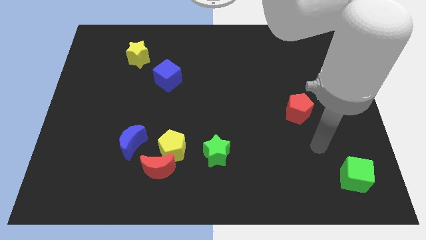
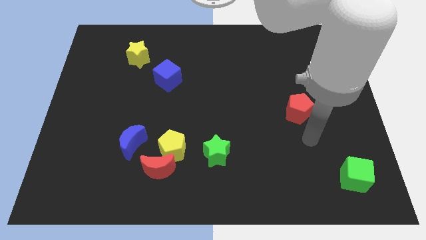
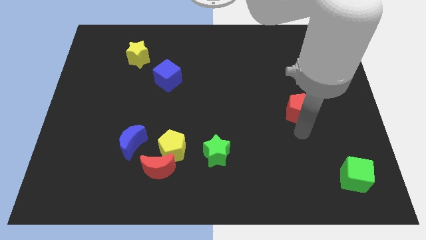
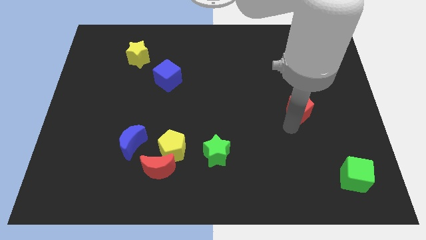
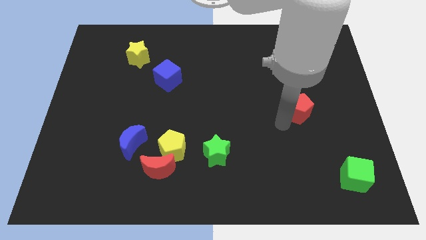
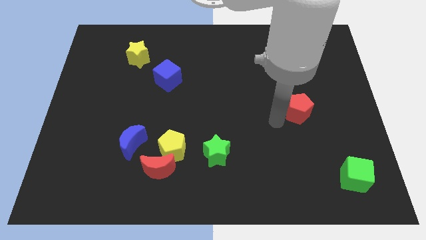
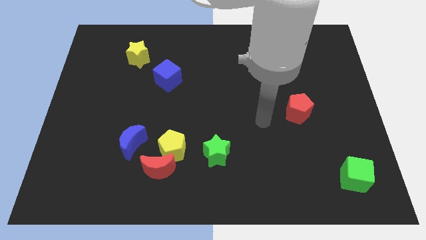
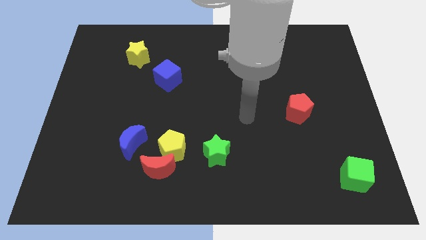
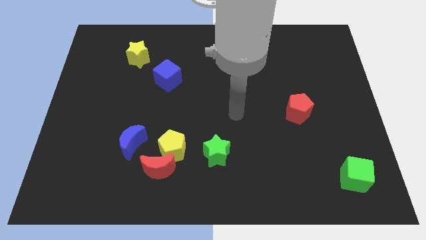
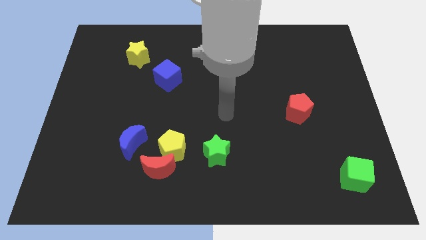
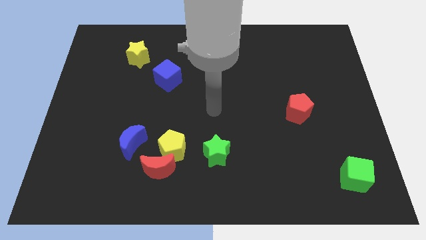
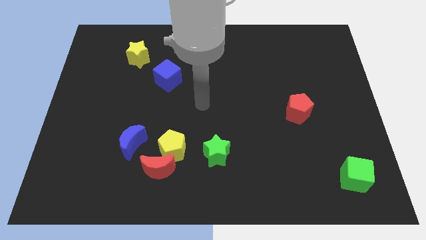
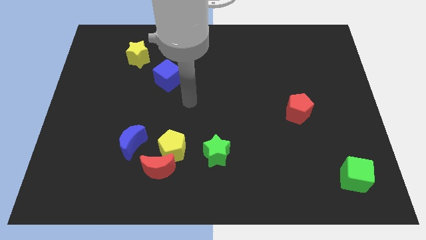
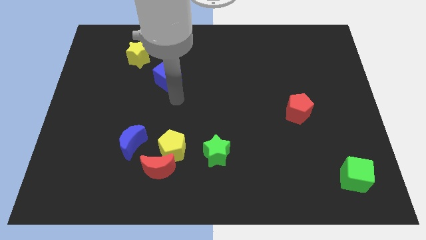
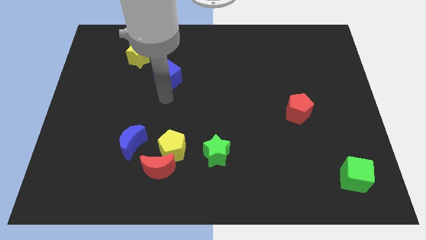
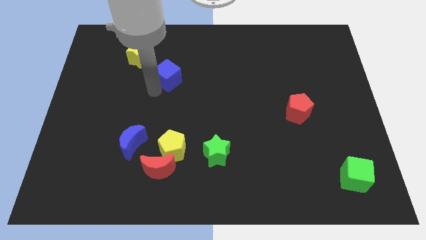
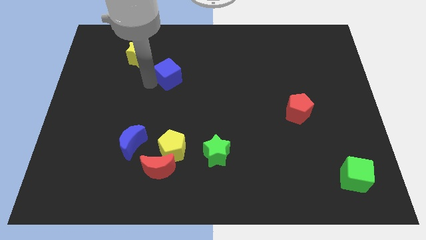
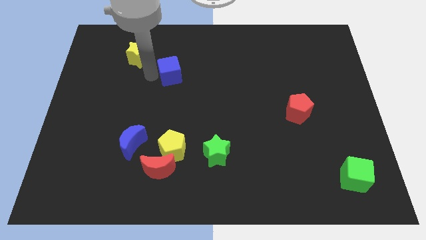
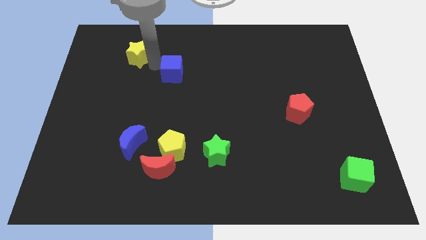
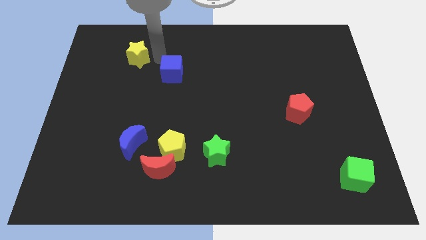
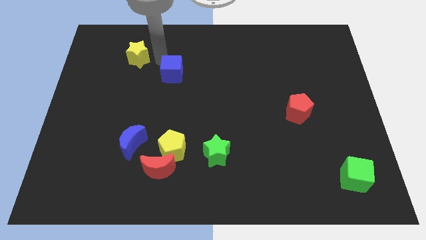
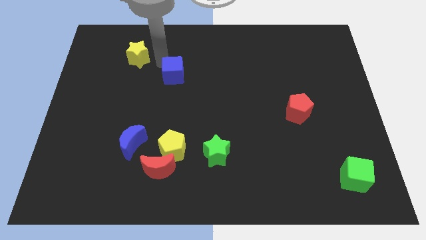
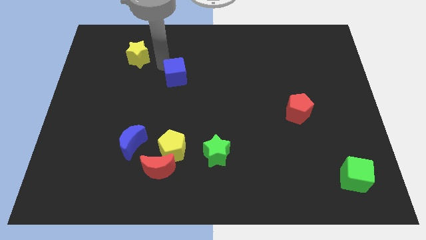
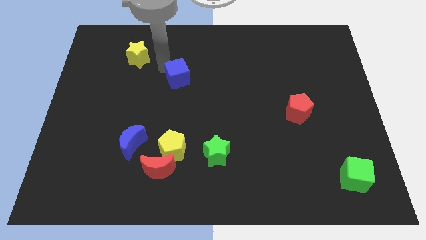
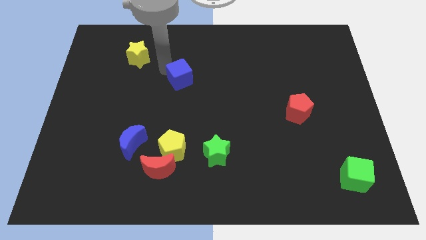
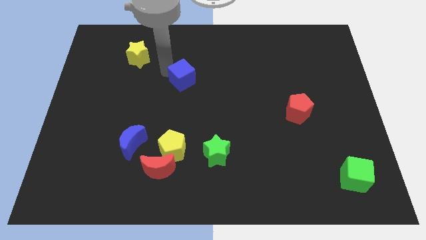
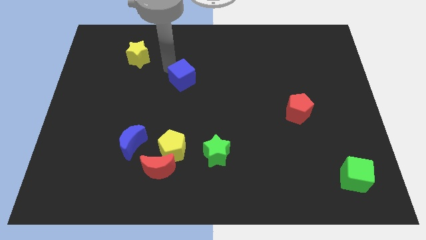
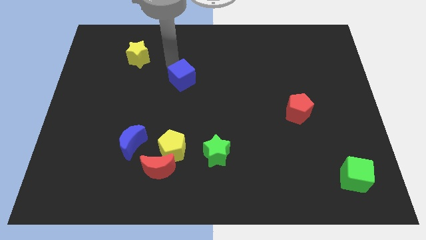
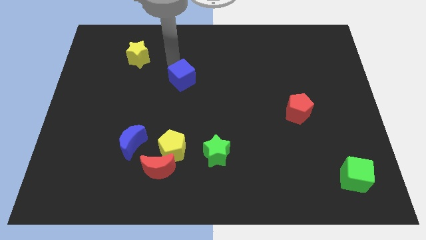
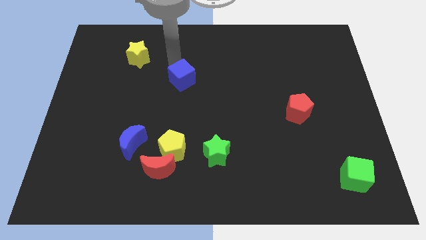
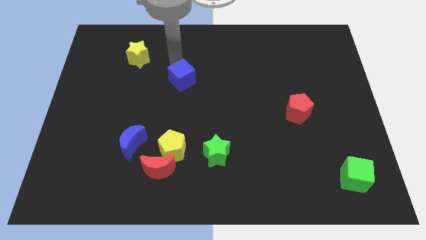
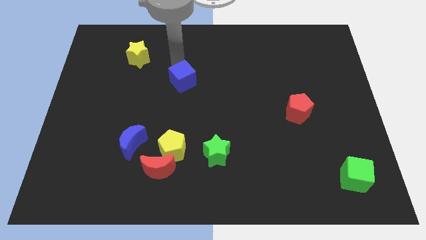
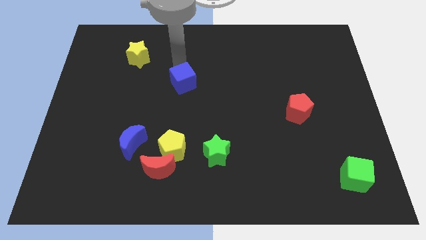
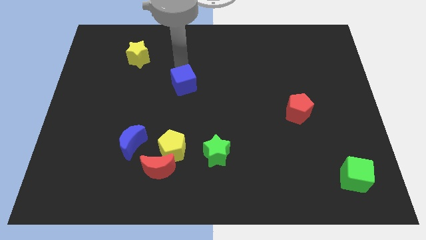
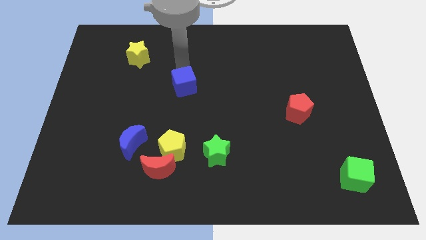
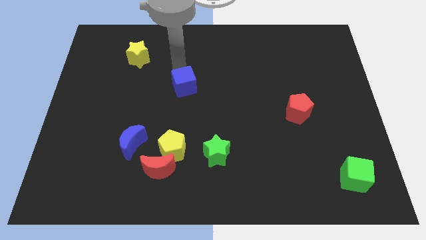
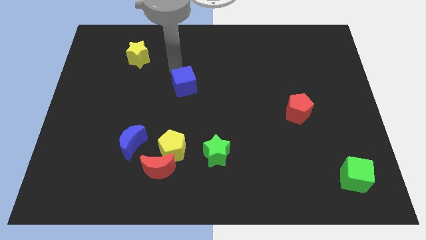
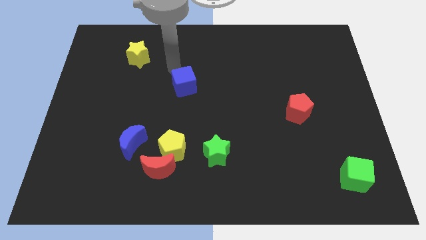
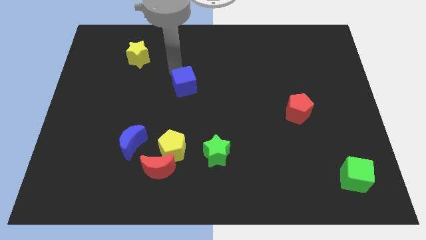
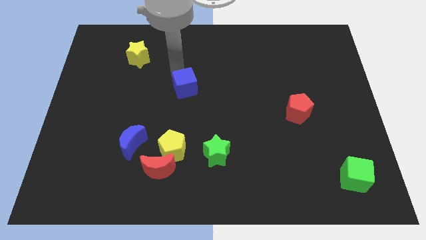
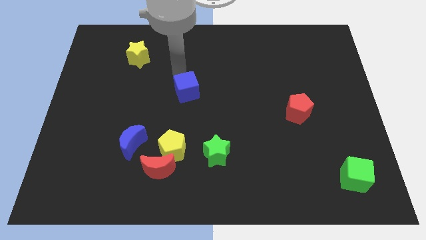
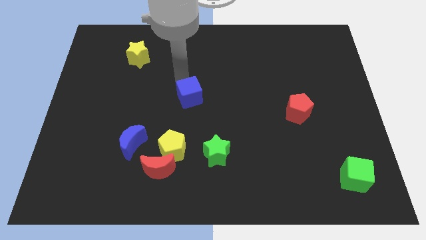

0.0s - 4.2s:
slightly slide the blue cube downwards and right

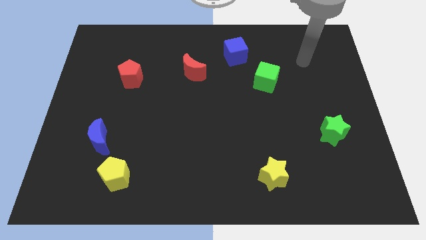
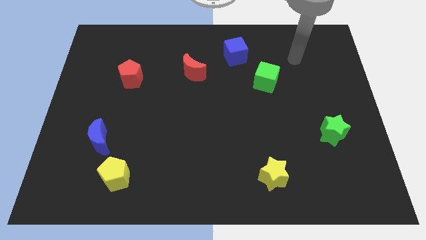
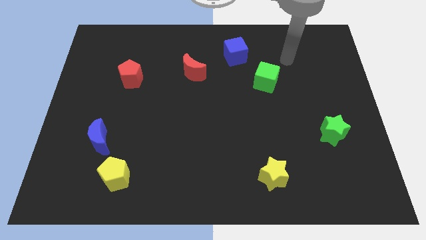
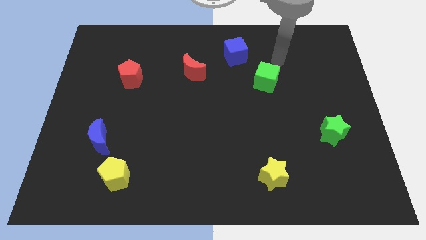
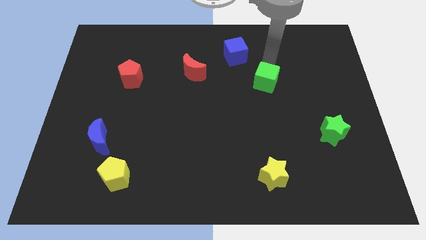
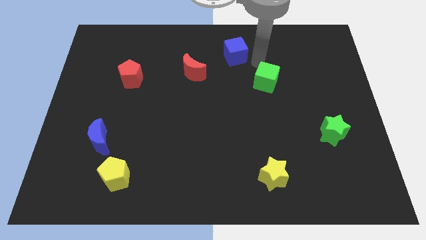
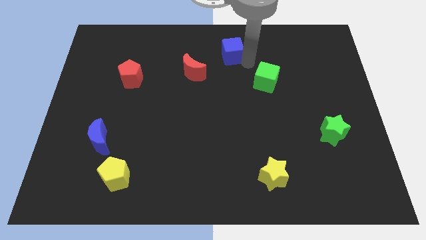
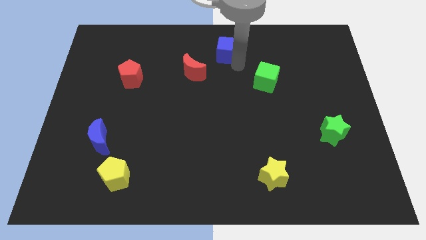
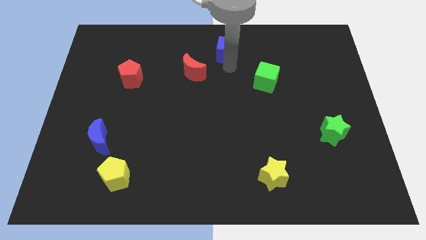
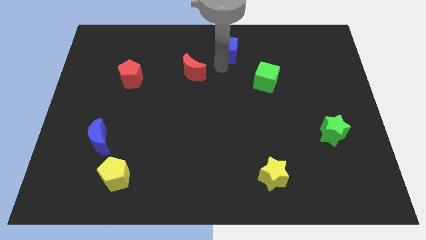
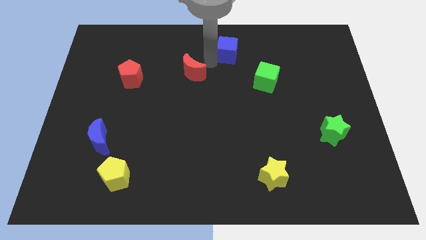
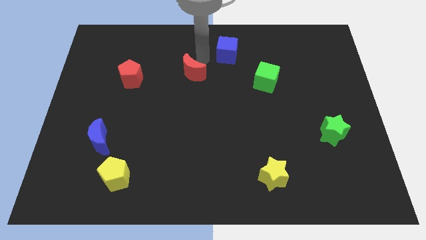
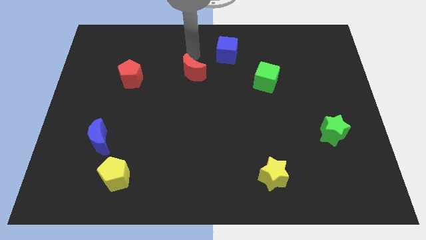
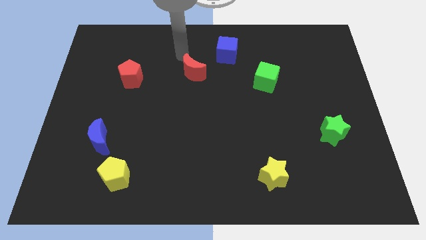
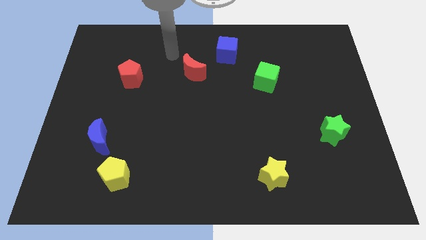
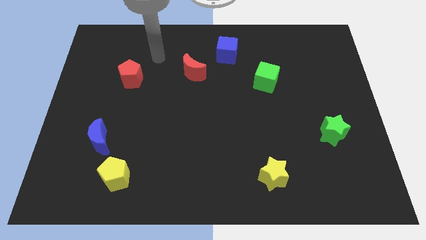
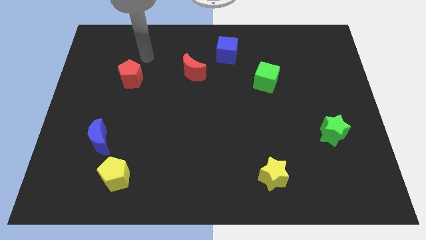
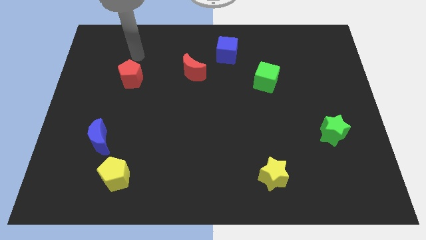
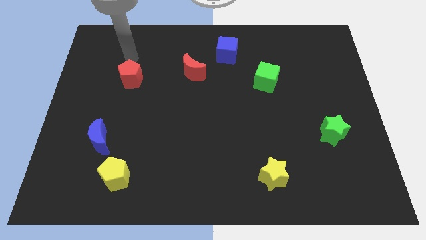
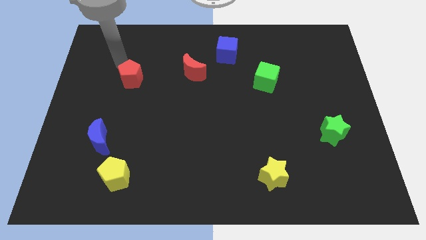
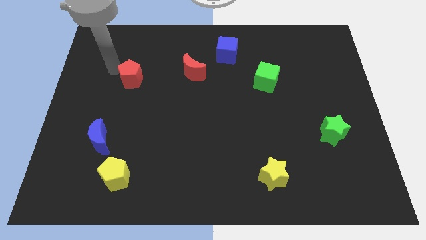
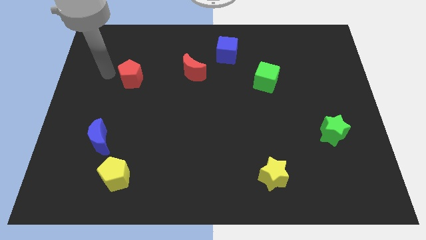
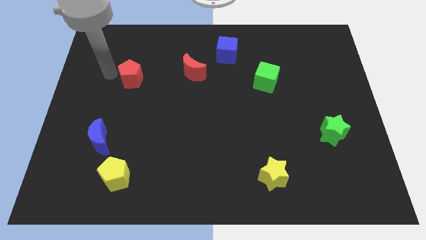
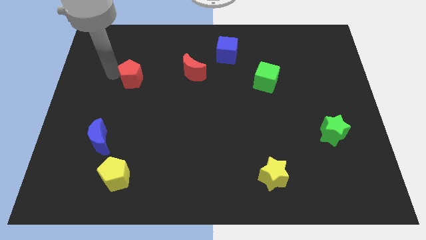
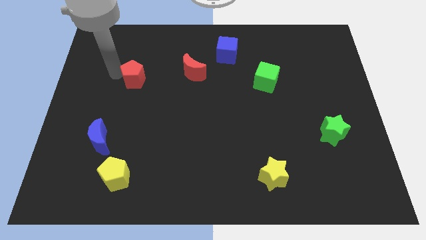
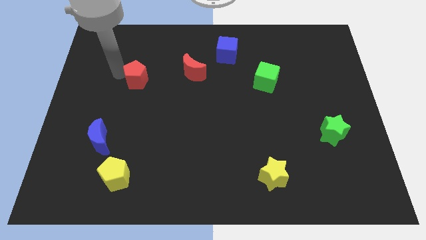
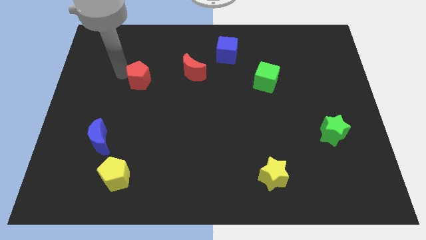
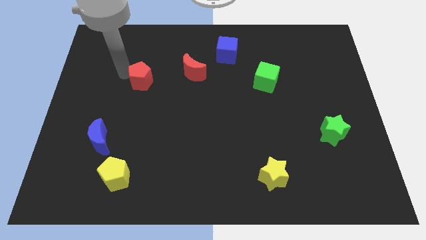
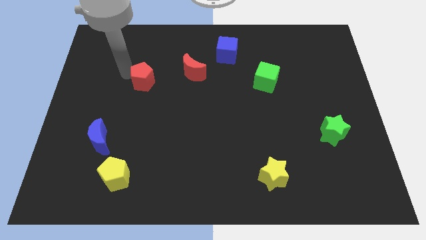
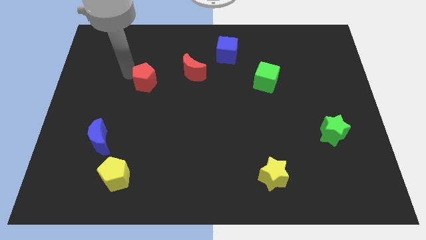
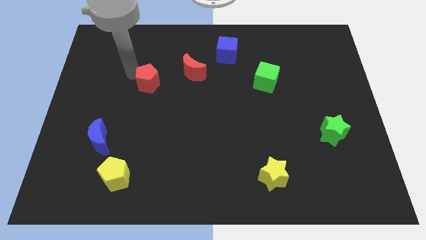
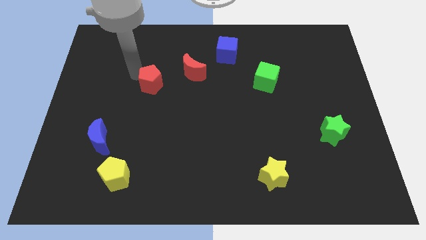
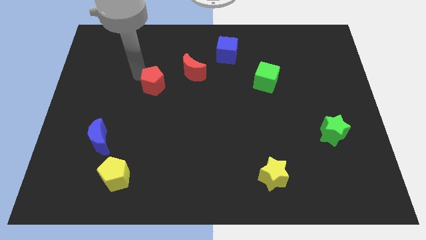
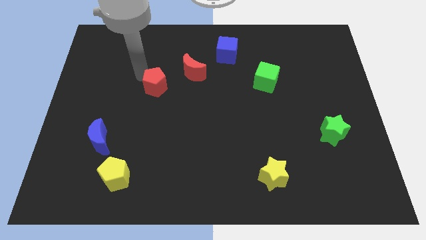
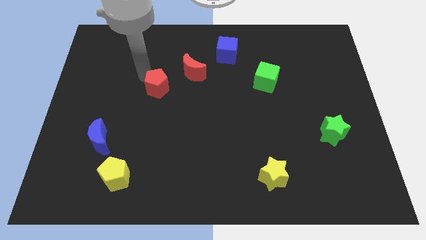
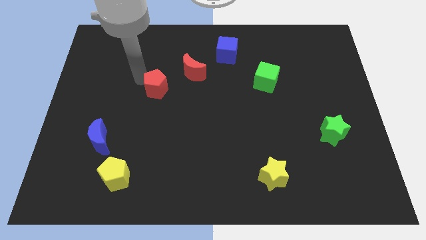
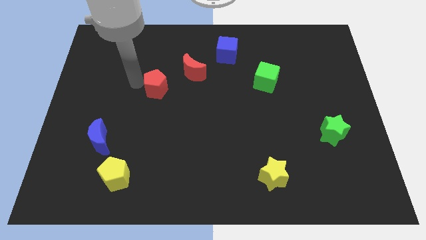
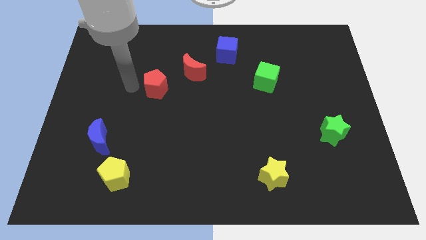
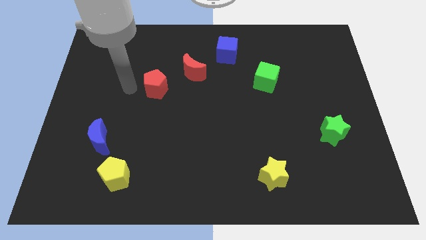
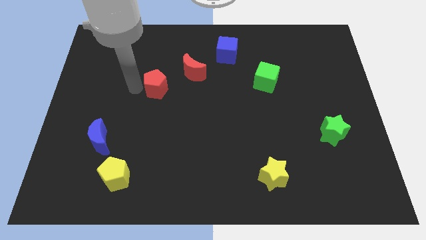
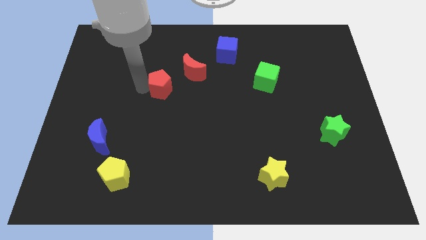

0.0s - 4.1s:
slide the red pentagon to the right a little bit
